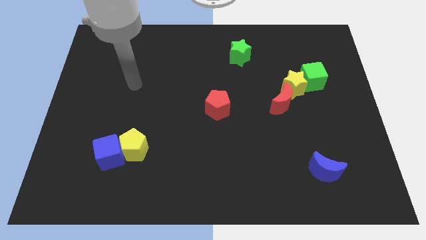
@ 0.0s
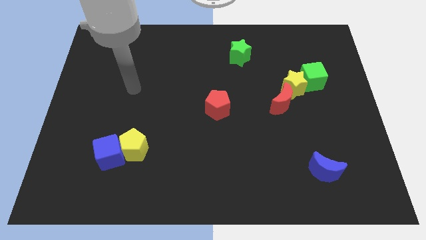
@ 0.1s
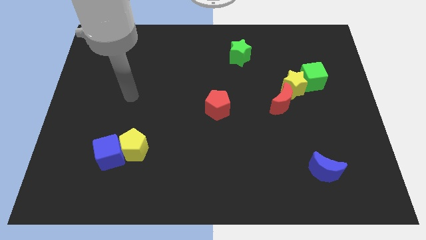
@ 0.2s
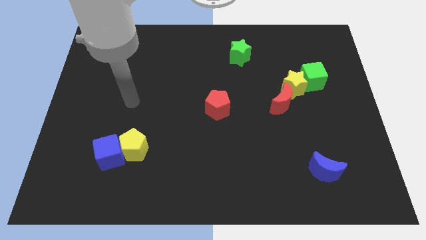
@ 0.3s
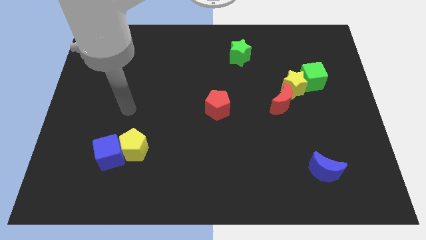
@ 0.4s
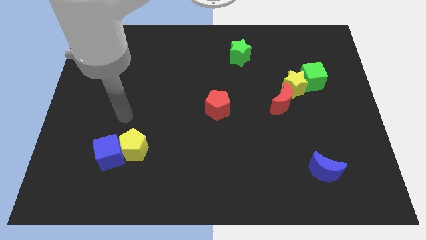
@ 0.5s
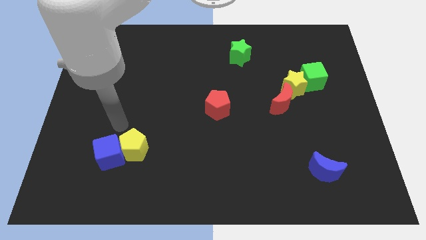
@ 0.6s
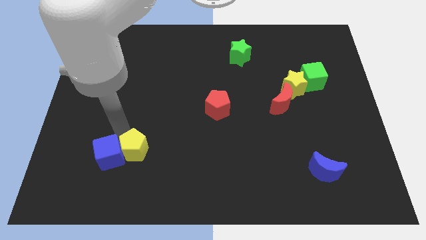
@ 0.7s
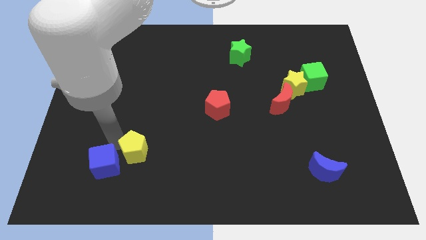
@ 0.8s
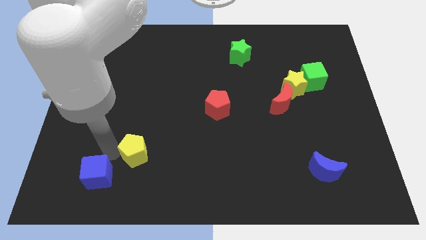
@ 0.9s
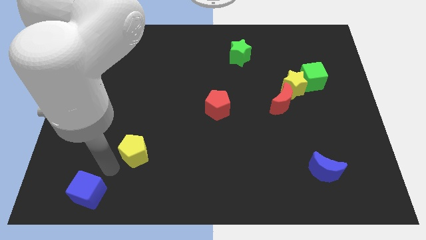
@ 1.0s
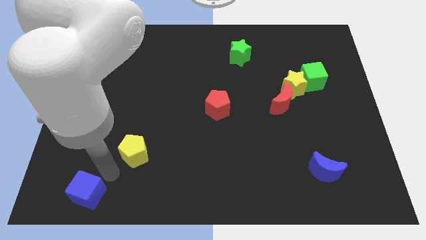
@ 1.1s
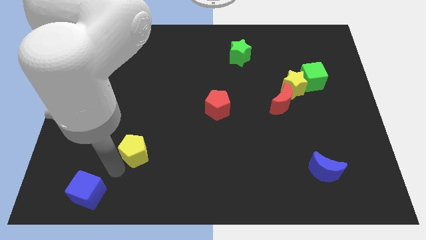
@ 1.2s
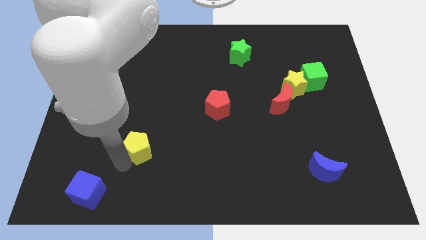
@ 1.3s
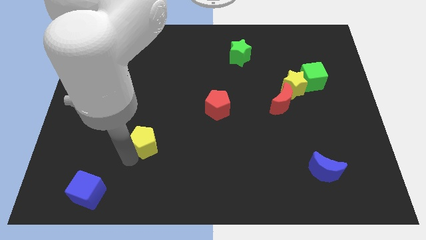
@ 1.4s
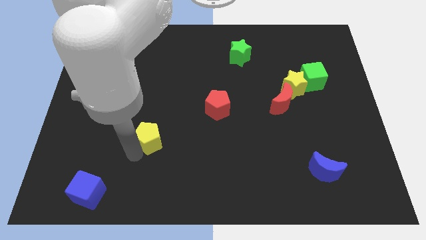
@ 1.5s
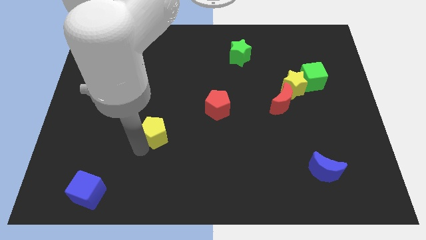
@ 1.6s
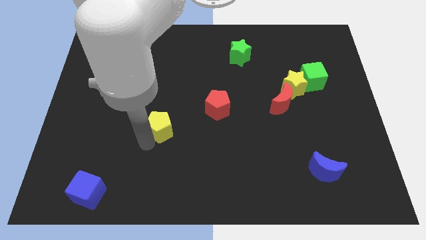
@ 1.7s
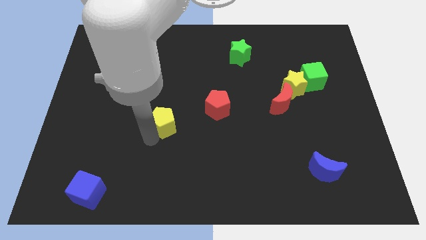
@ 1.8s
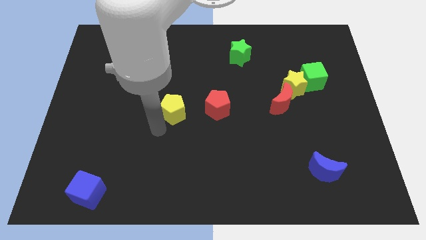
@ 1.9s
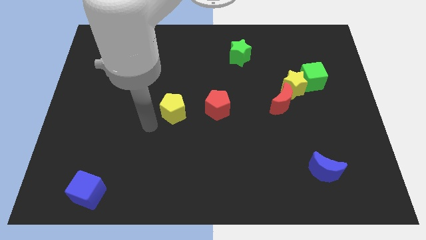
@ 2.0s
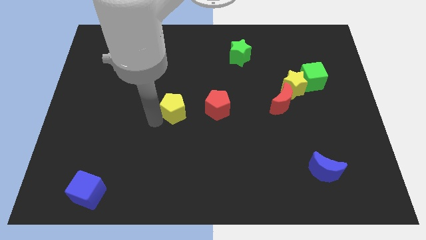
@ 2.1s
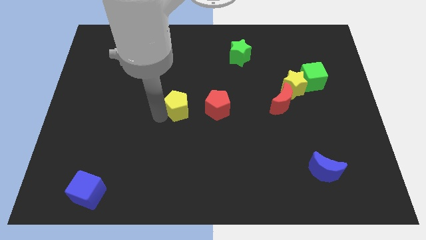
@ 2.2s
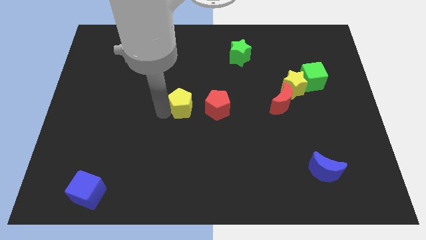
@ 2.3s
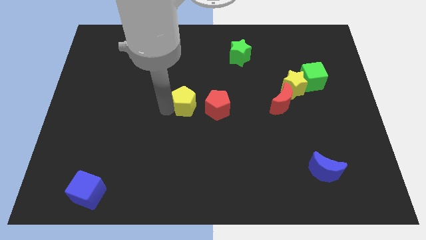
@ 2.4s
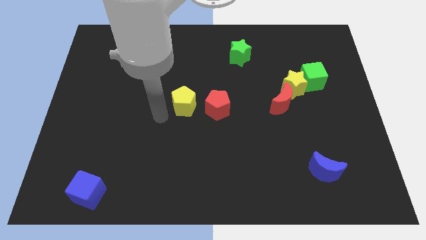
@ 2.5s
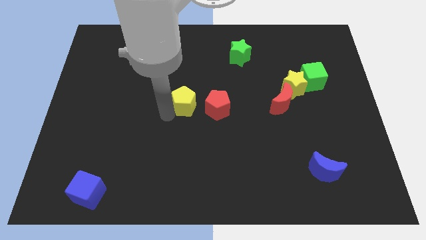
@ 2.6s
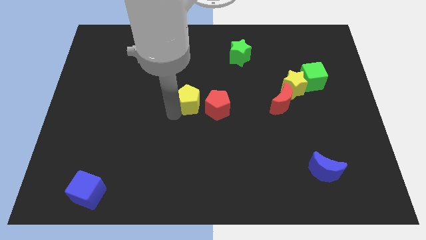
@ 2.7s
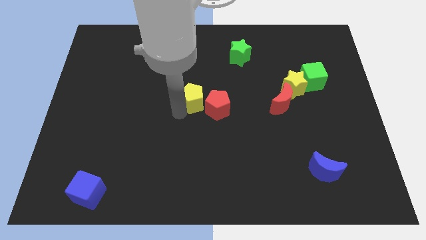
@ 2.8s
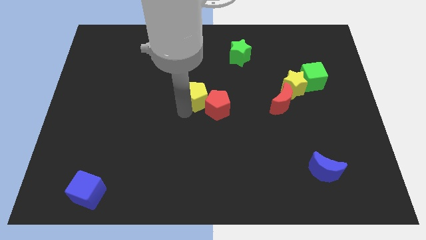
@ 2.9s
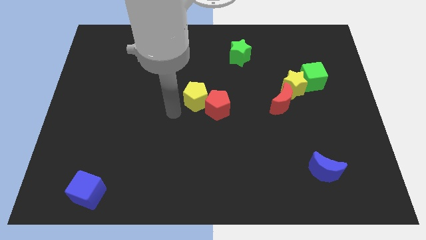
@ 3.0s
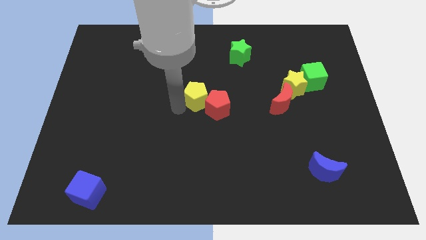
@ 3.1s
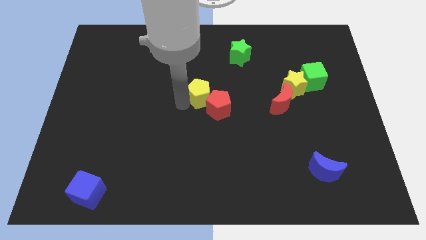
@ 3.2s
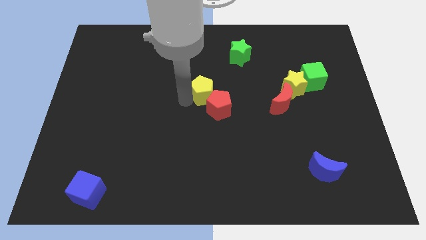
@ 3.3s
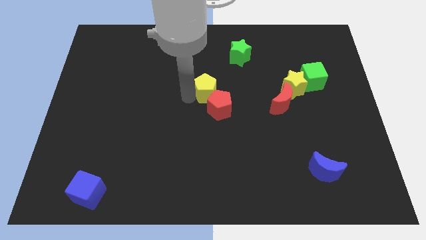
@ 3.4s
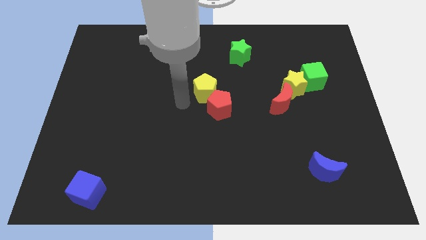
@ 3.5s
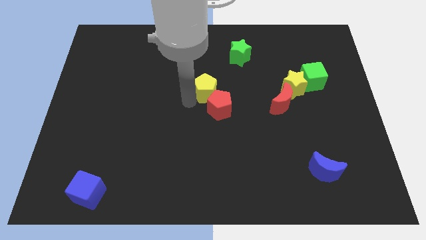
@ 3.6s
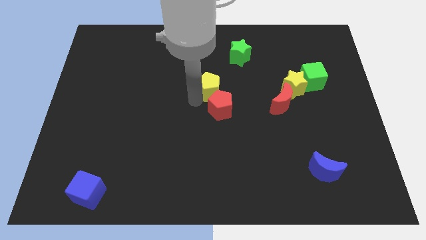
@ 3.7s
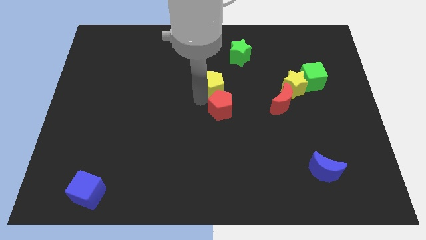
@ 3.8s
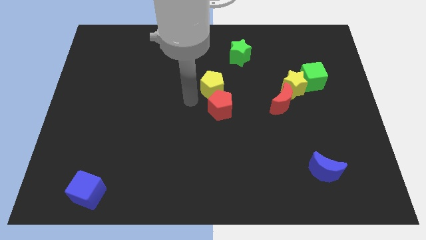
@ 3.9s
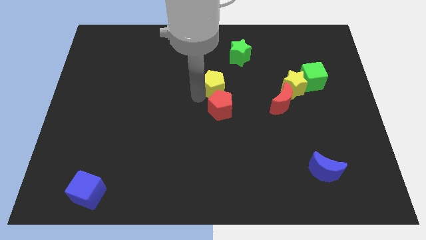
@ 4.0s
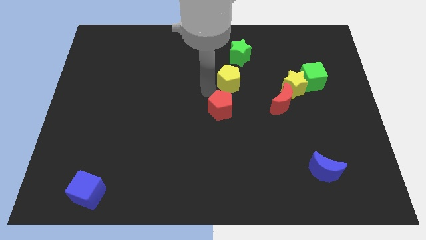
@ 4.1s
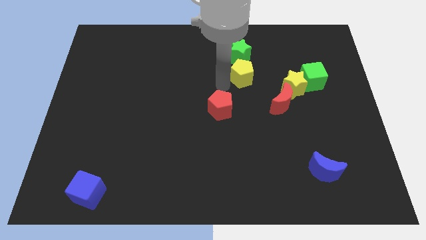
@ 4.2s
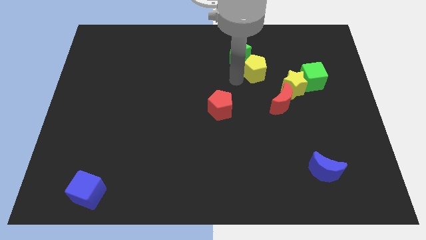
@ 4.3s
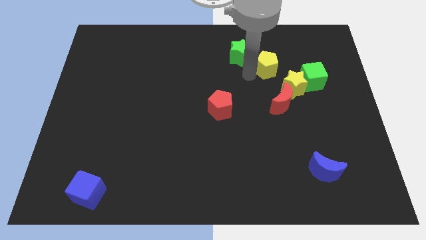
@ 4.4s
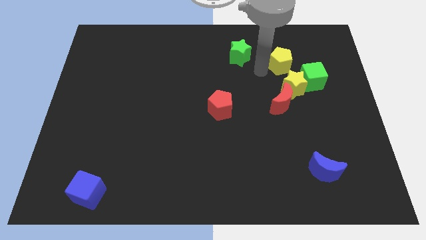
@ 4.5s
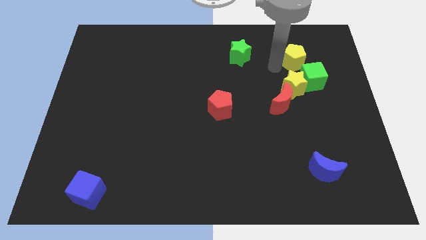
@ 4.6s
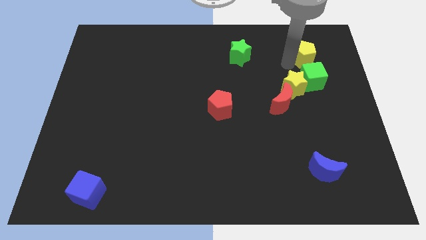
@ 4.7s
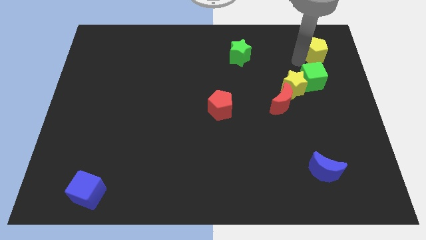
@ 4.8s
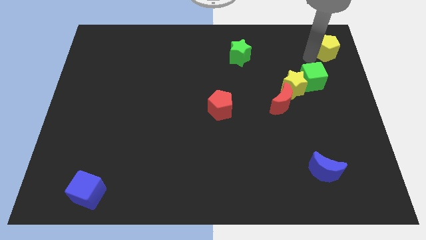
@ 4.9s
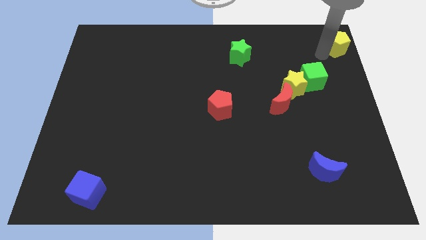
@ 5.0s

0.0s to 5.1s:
move the yellow pentagon to the top right of the board

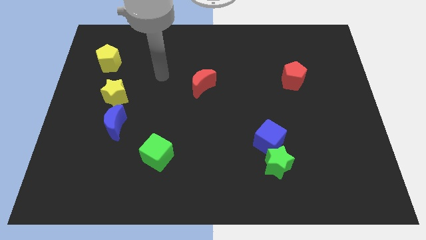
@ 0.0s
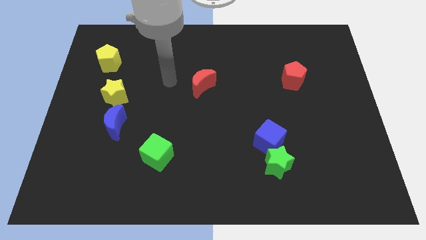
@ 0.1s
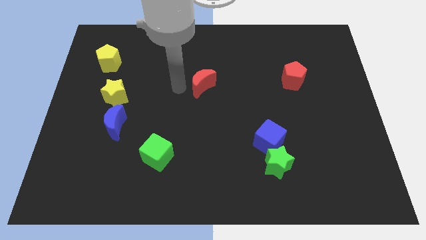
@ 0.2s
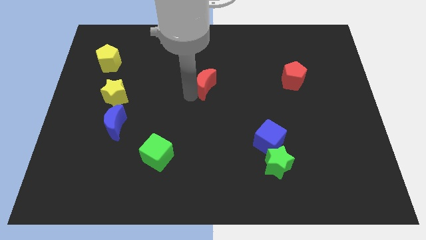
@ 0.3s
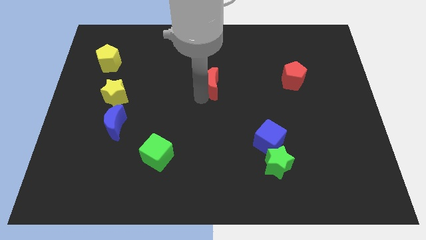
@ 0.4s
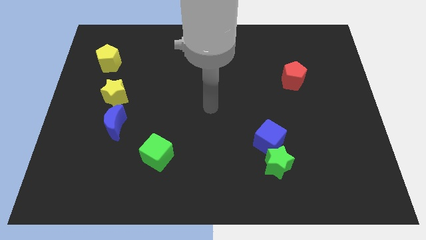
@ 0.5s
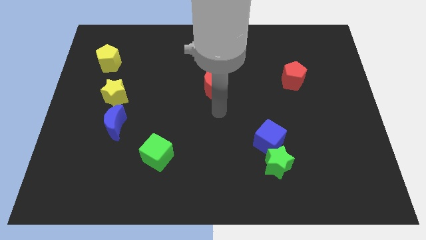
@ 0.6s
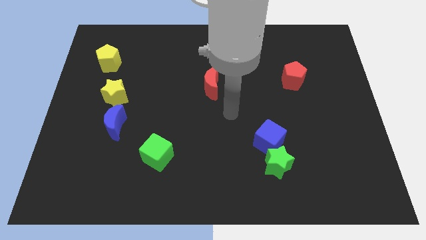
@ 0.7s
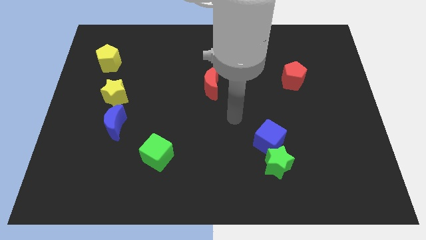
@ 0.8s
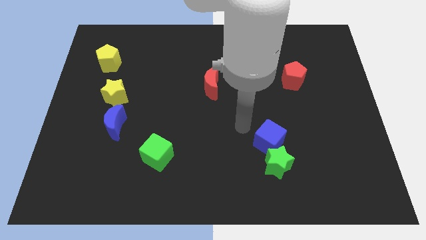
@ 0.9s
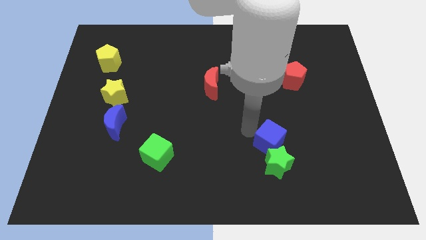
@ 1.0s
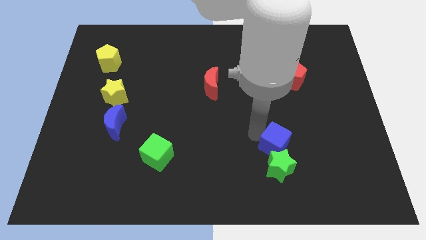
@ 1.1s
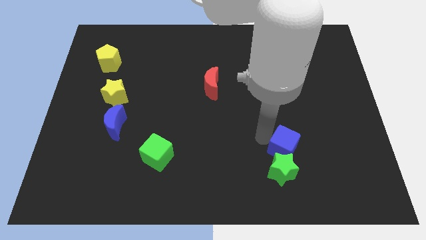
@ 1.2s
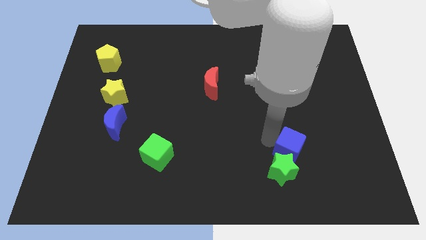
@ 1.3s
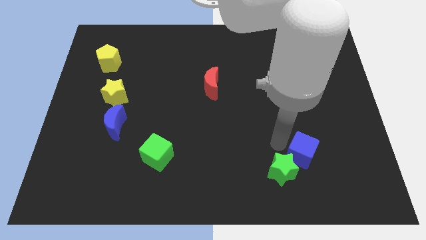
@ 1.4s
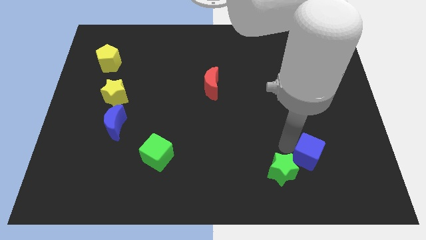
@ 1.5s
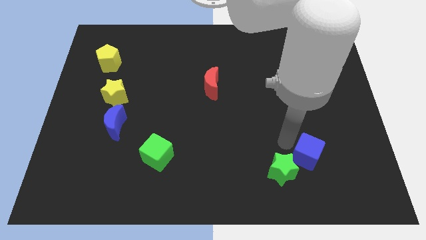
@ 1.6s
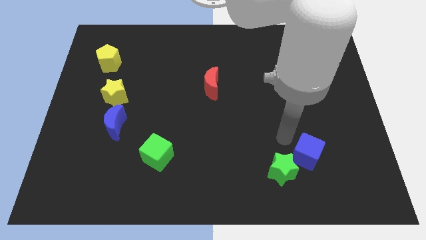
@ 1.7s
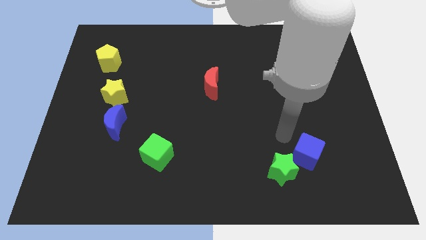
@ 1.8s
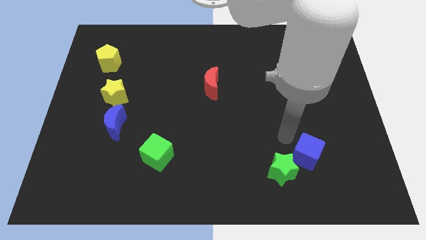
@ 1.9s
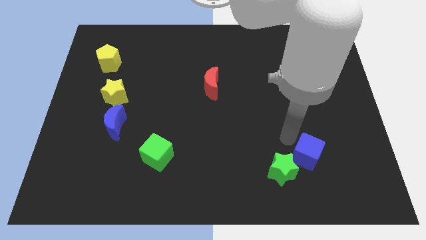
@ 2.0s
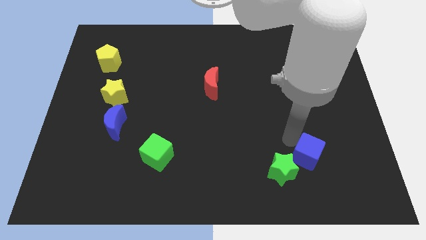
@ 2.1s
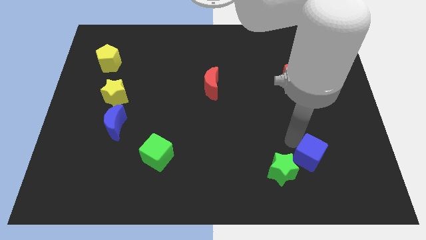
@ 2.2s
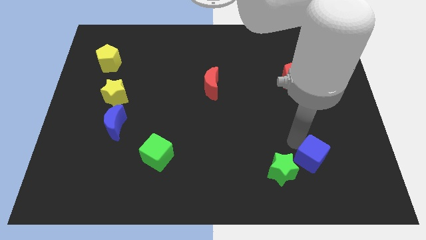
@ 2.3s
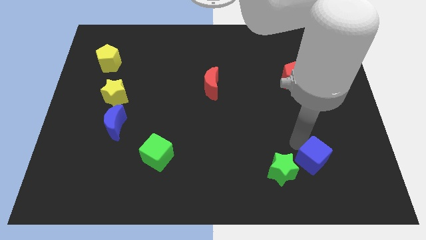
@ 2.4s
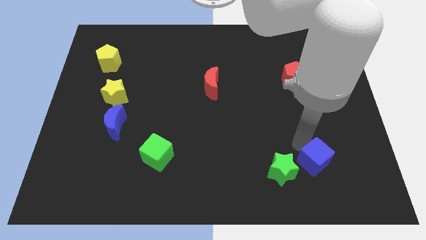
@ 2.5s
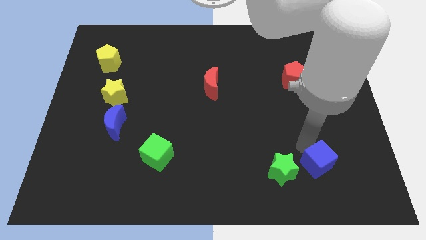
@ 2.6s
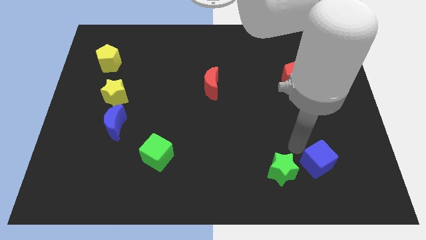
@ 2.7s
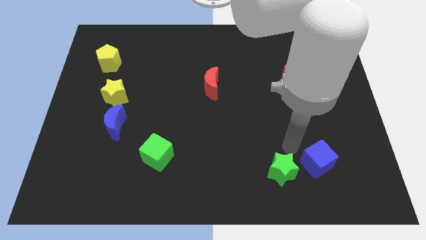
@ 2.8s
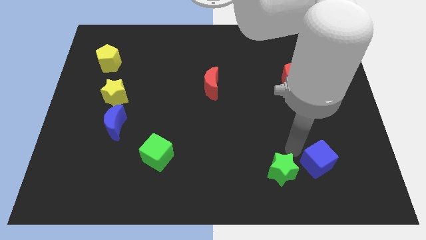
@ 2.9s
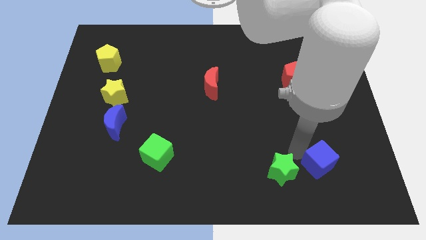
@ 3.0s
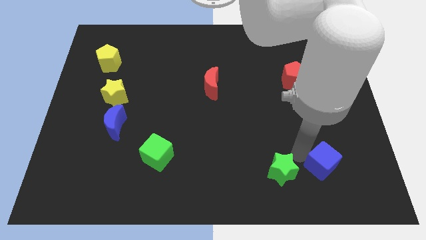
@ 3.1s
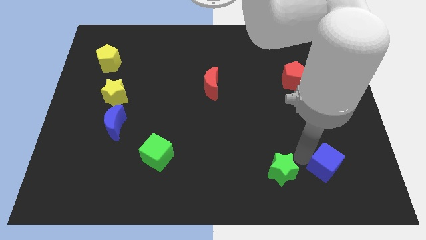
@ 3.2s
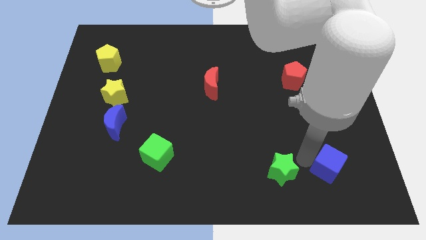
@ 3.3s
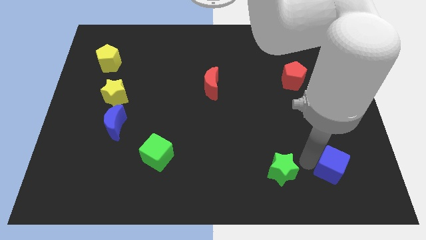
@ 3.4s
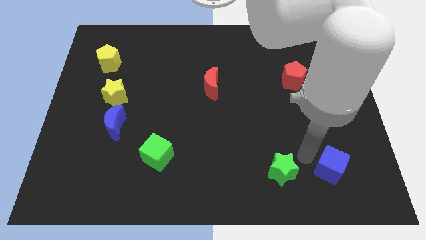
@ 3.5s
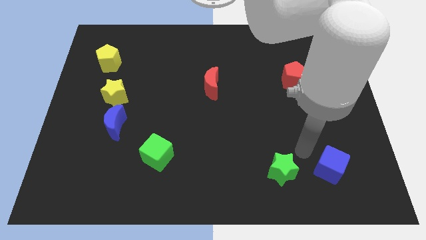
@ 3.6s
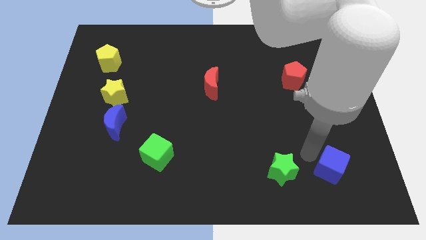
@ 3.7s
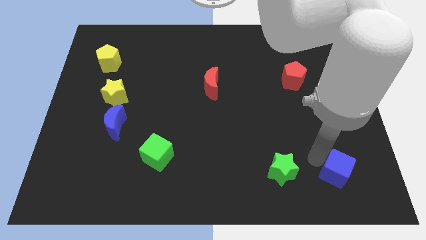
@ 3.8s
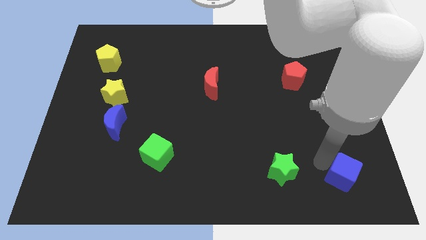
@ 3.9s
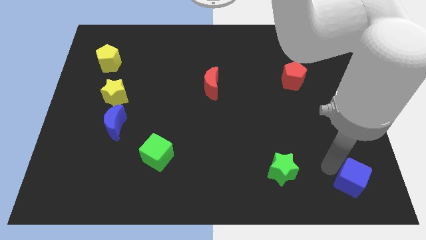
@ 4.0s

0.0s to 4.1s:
put the blue cube to the bottom right of the board
